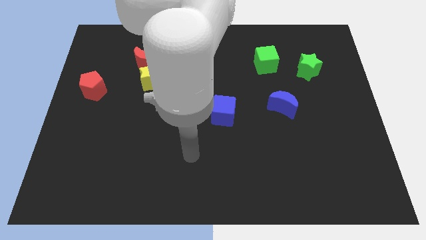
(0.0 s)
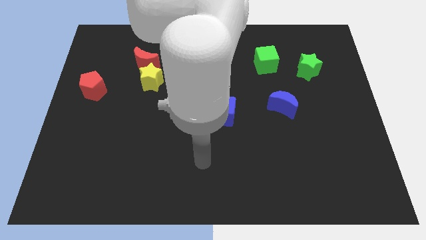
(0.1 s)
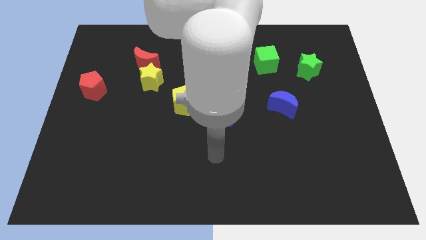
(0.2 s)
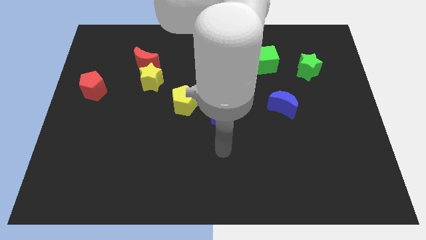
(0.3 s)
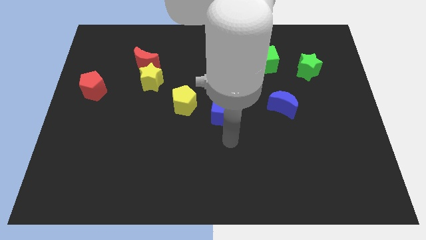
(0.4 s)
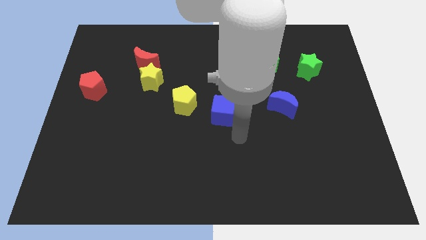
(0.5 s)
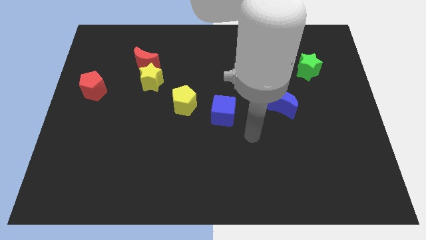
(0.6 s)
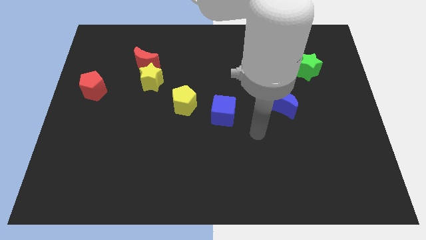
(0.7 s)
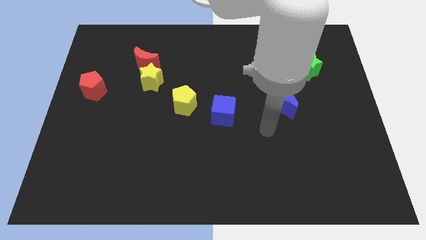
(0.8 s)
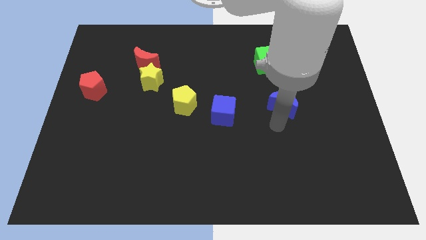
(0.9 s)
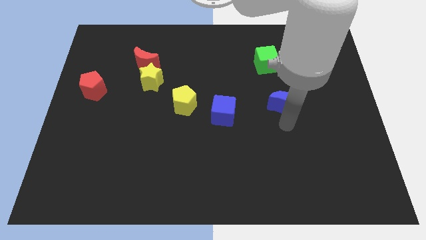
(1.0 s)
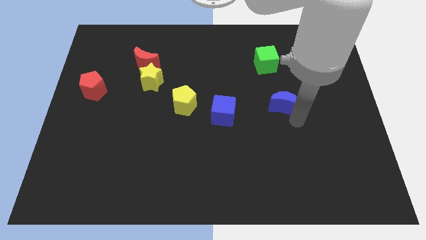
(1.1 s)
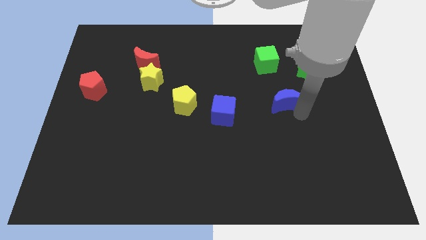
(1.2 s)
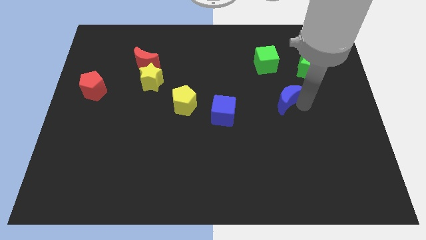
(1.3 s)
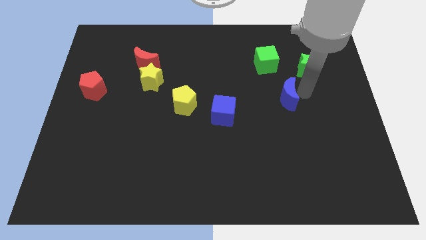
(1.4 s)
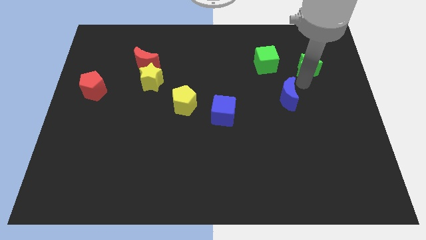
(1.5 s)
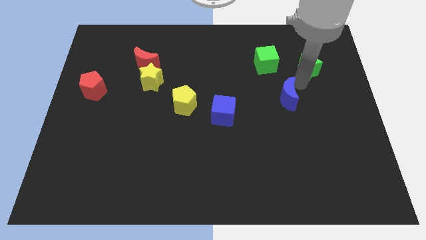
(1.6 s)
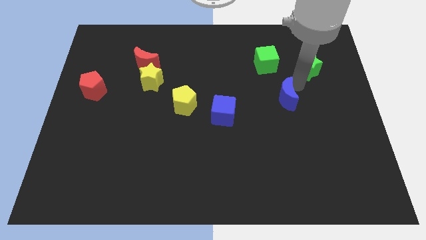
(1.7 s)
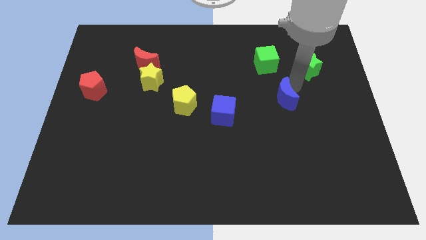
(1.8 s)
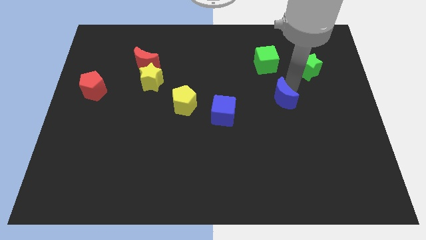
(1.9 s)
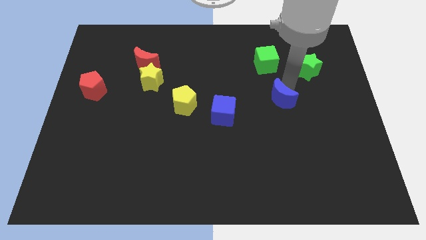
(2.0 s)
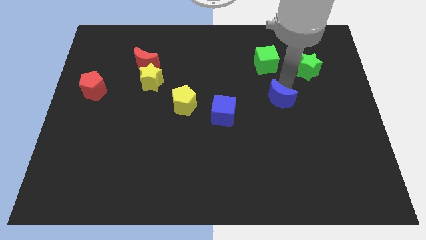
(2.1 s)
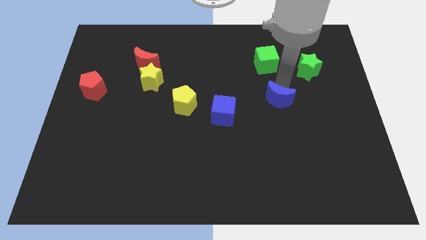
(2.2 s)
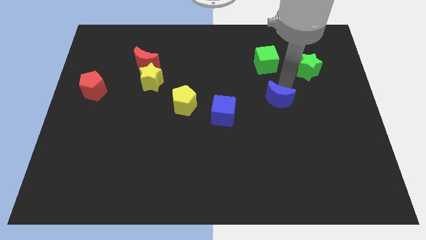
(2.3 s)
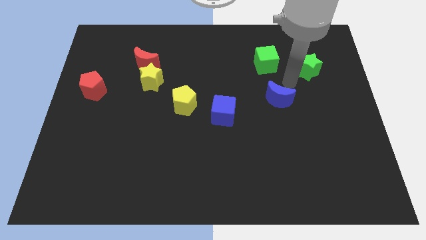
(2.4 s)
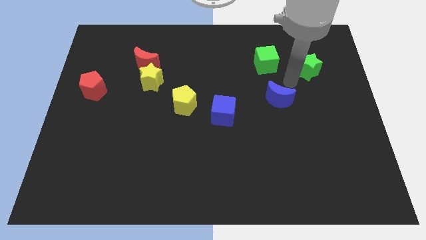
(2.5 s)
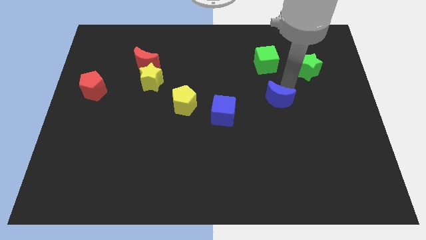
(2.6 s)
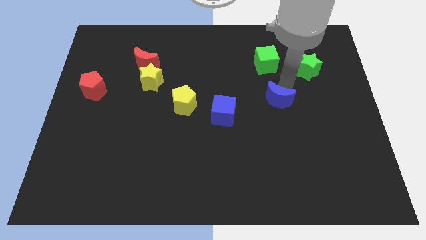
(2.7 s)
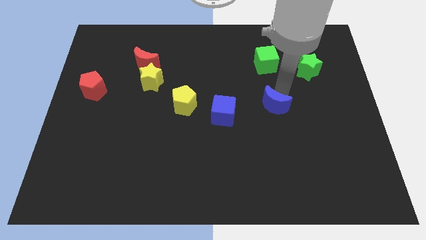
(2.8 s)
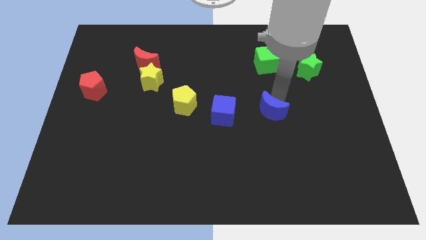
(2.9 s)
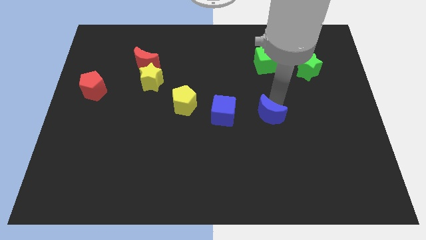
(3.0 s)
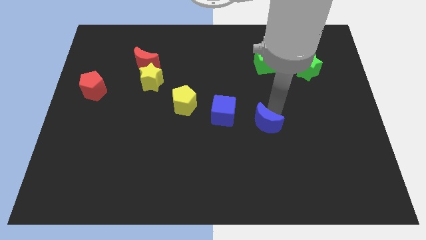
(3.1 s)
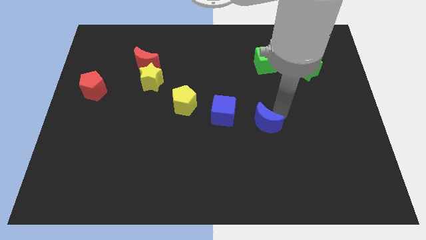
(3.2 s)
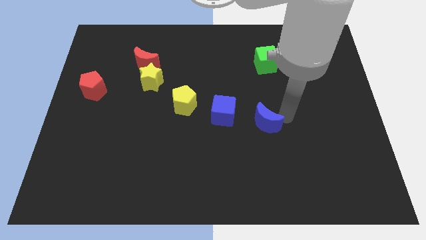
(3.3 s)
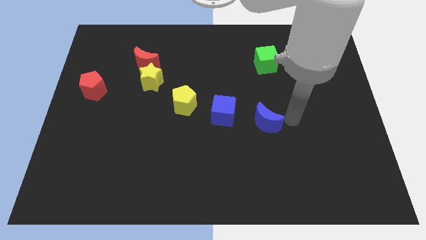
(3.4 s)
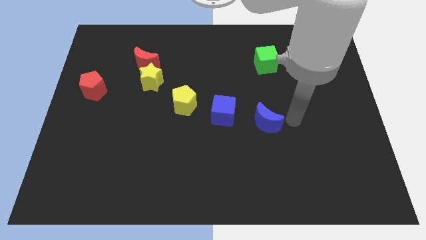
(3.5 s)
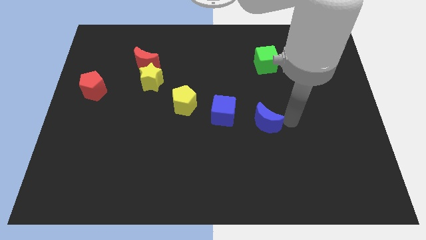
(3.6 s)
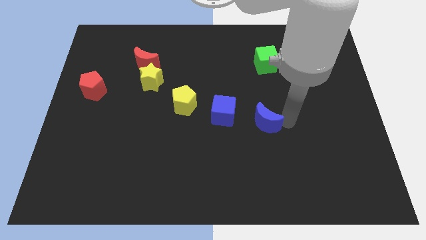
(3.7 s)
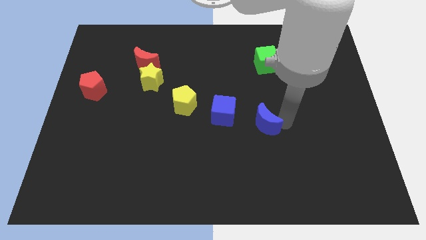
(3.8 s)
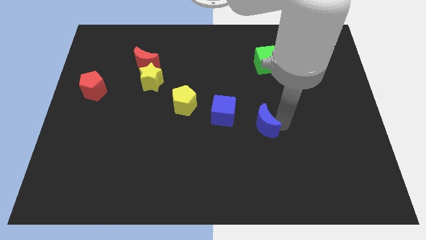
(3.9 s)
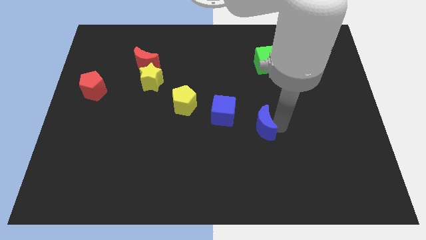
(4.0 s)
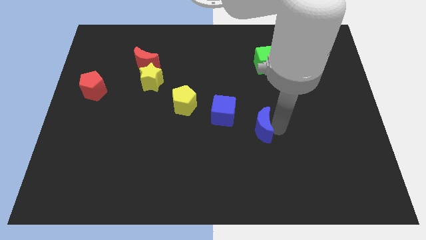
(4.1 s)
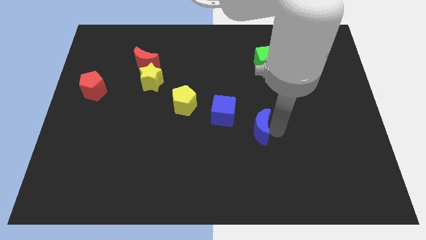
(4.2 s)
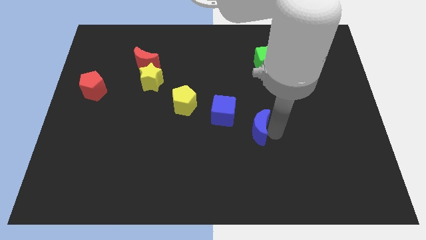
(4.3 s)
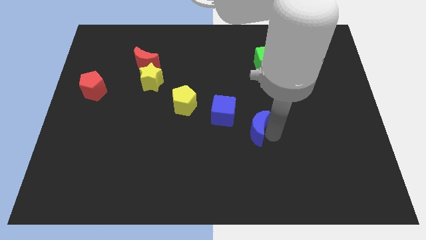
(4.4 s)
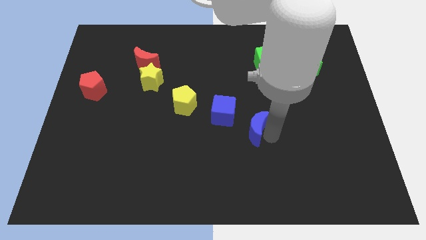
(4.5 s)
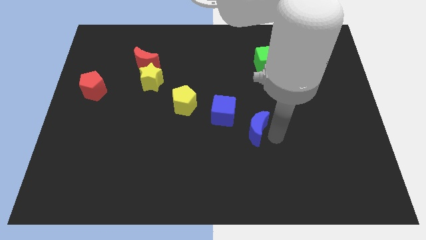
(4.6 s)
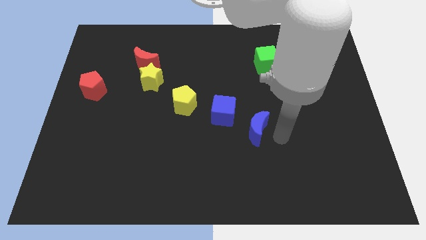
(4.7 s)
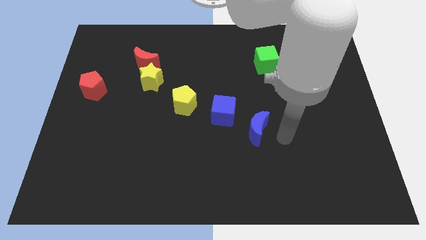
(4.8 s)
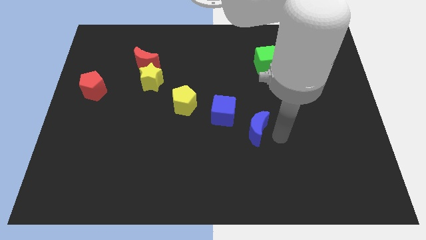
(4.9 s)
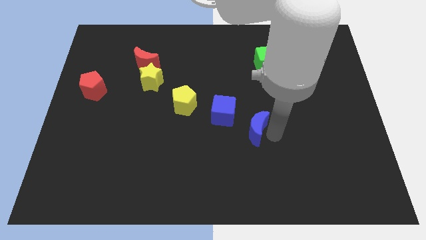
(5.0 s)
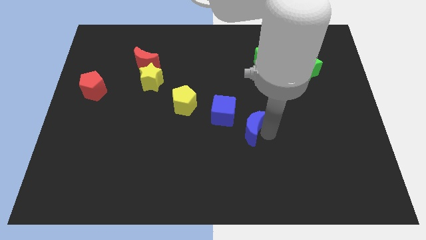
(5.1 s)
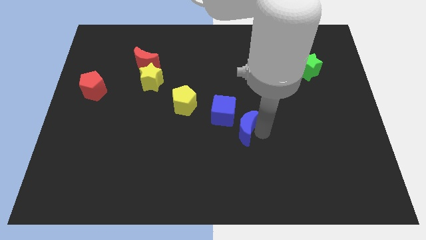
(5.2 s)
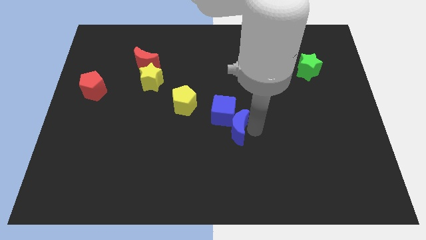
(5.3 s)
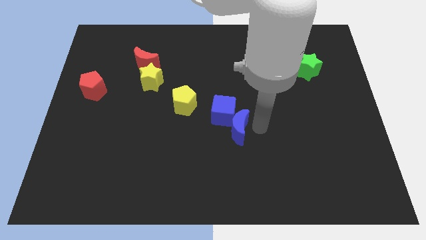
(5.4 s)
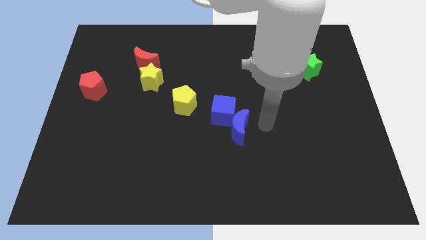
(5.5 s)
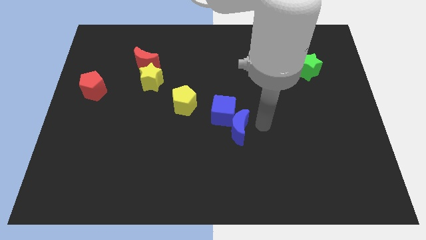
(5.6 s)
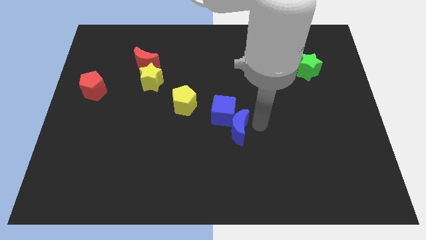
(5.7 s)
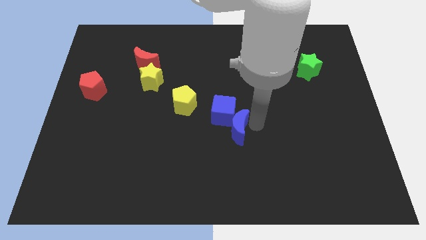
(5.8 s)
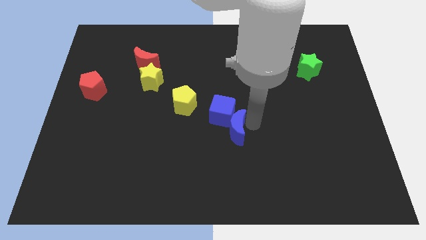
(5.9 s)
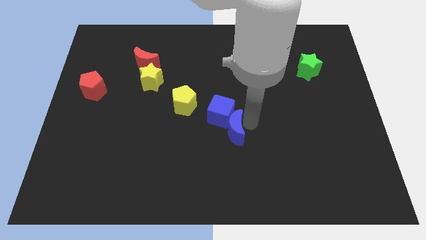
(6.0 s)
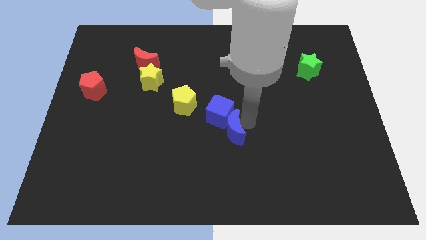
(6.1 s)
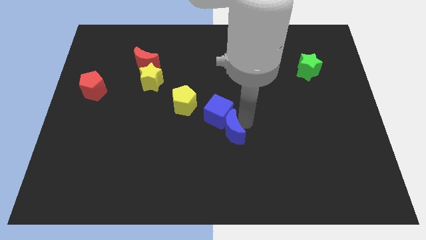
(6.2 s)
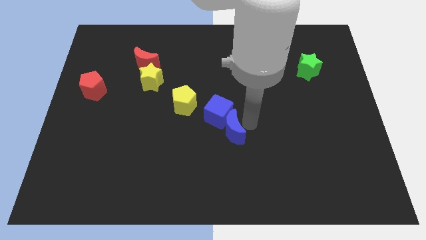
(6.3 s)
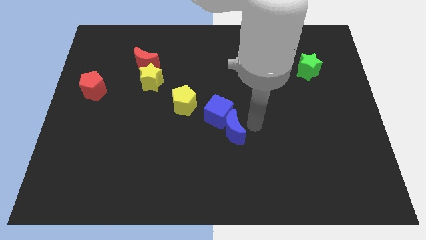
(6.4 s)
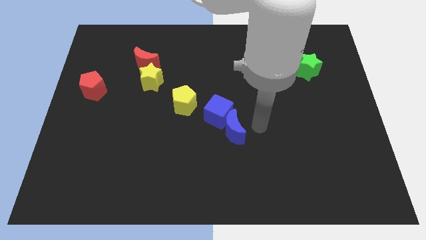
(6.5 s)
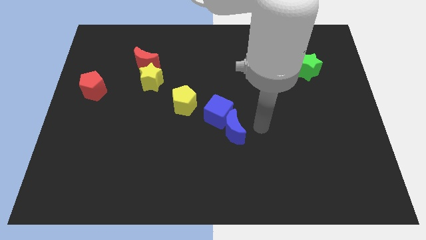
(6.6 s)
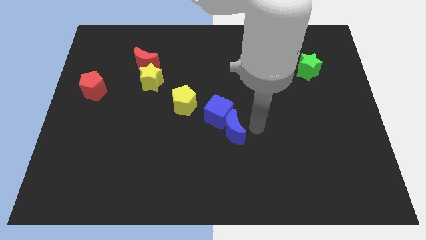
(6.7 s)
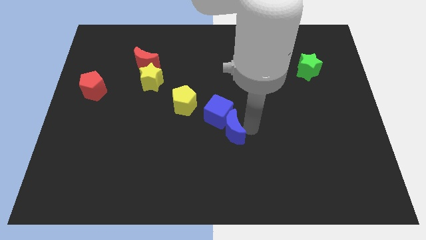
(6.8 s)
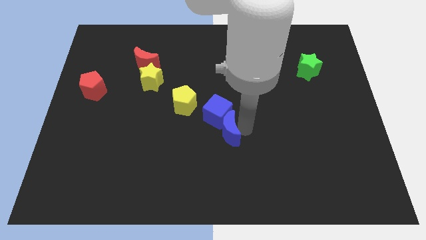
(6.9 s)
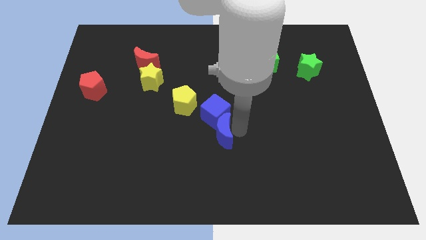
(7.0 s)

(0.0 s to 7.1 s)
push the blue moon diagonally down and to the right of the yellow pentagon

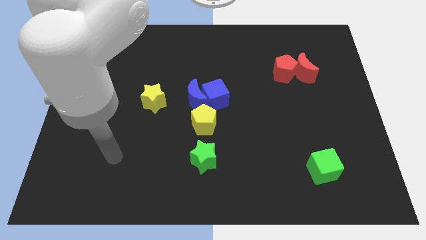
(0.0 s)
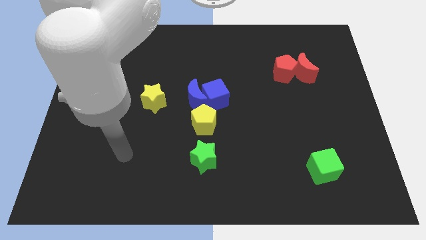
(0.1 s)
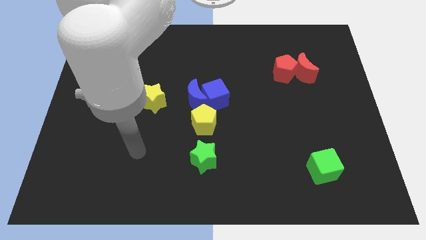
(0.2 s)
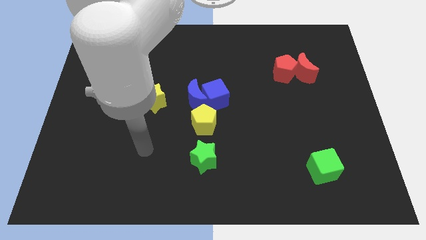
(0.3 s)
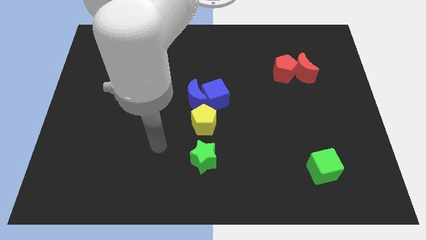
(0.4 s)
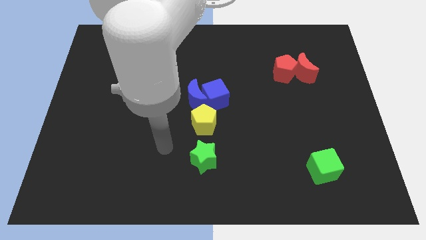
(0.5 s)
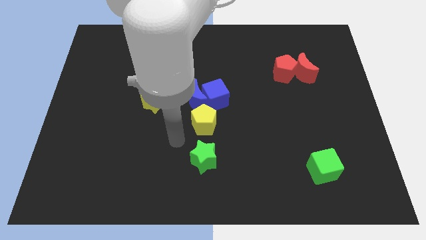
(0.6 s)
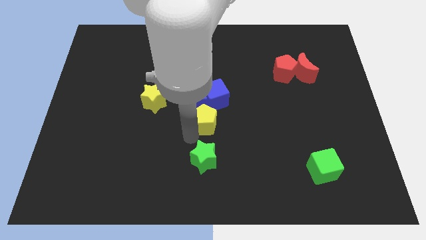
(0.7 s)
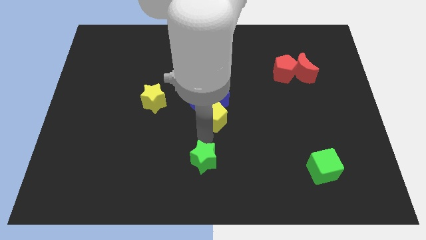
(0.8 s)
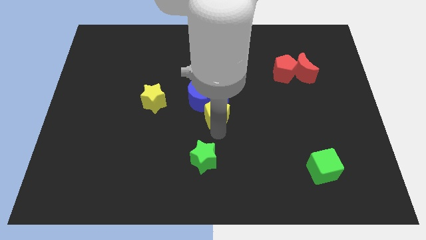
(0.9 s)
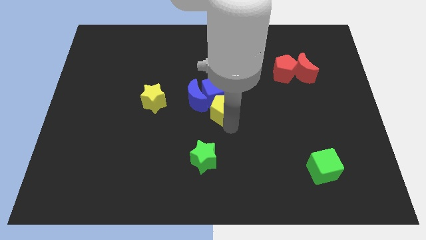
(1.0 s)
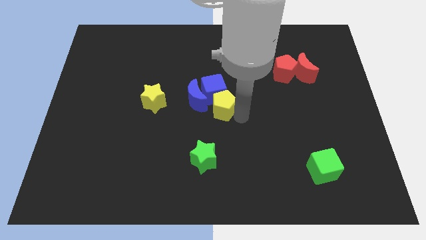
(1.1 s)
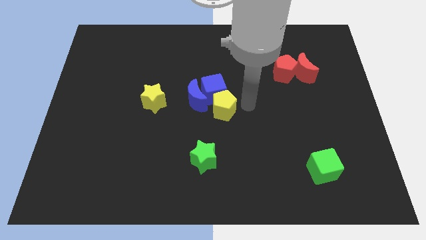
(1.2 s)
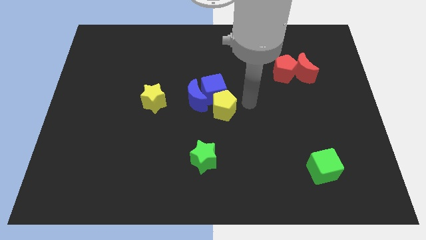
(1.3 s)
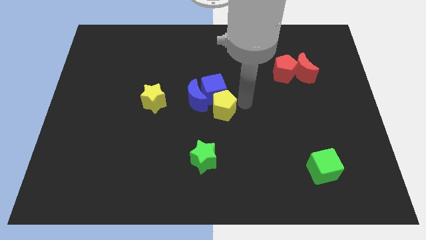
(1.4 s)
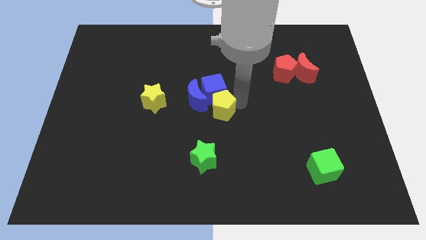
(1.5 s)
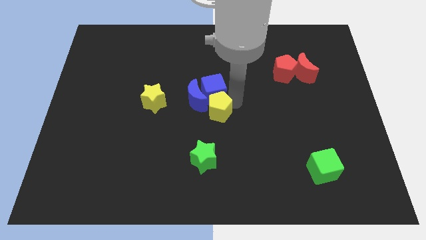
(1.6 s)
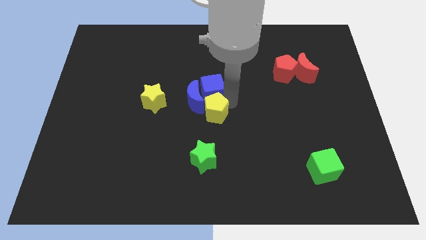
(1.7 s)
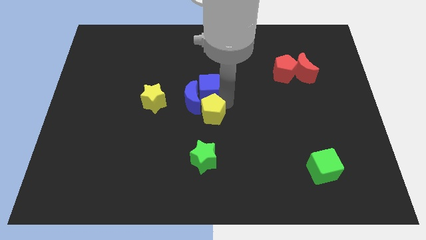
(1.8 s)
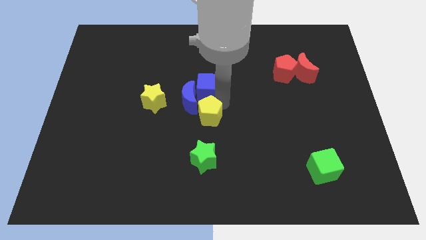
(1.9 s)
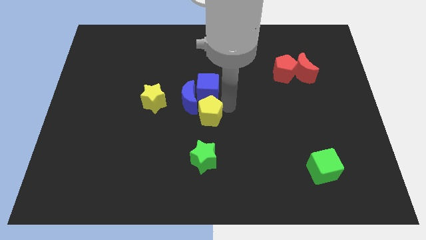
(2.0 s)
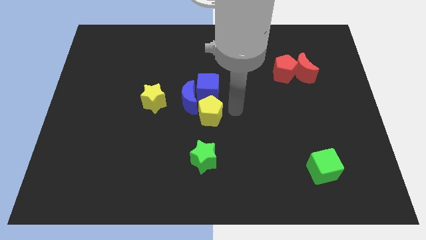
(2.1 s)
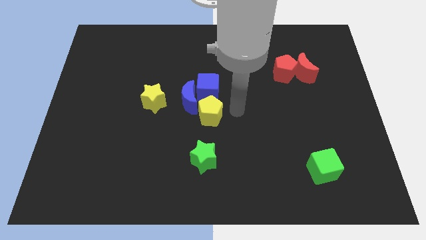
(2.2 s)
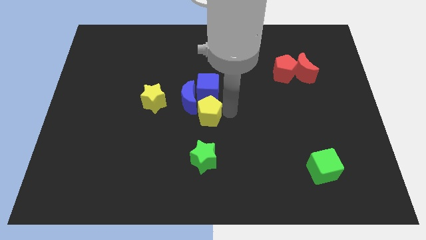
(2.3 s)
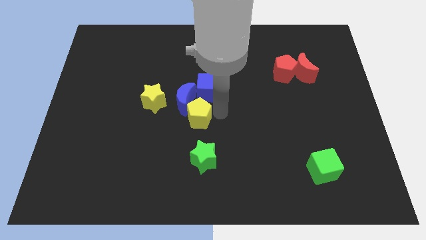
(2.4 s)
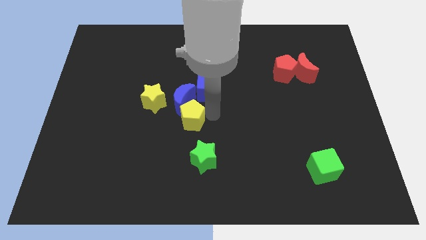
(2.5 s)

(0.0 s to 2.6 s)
push the yellow pentagon to the bottom right of the yellow star
